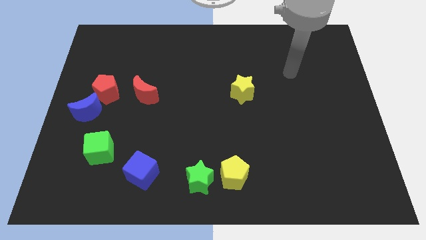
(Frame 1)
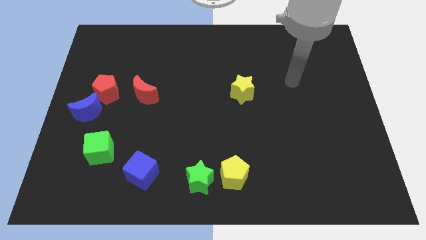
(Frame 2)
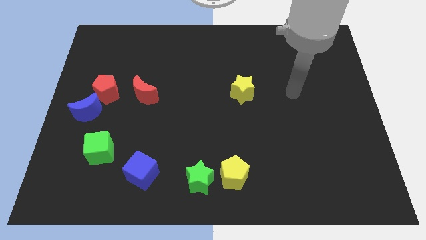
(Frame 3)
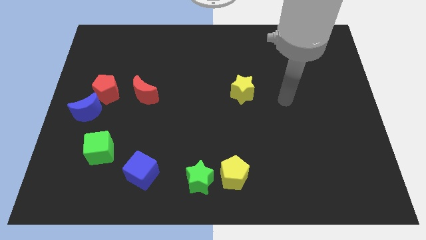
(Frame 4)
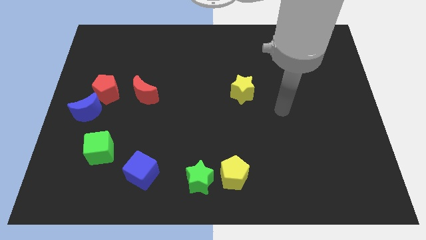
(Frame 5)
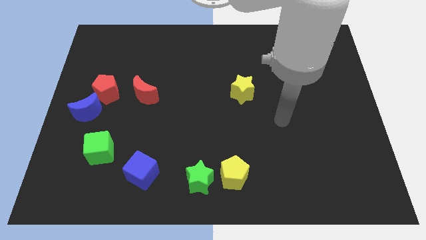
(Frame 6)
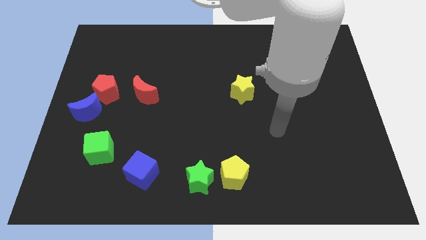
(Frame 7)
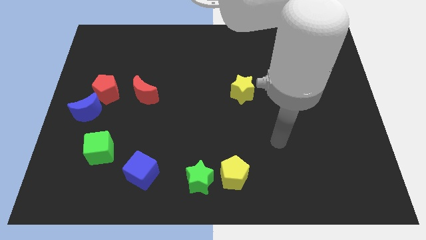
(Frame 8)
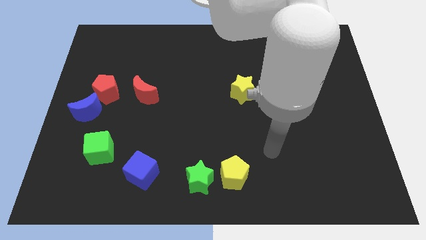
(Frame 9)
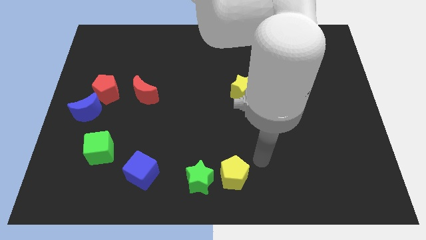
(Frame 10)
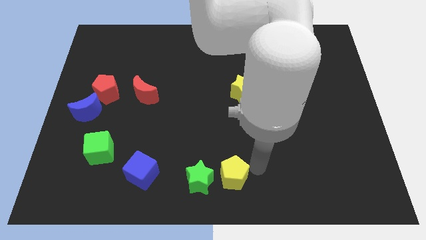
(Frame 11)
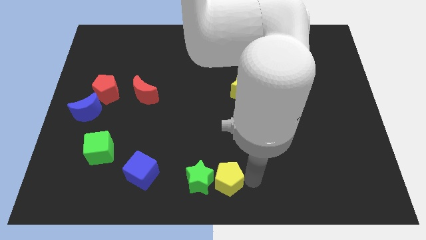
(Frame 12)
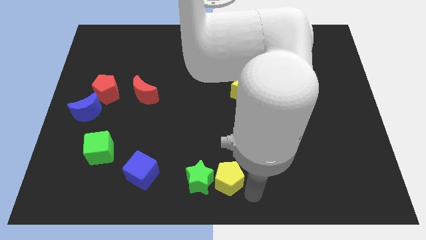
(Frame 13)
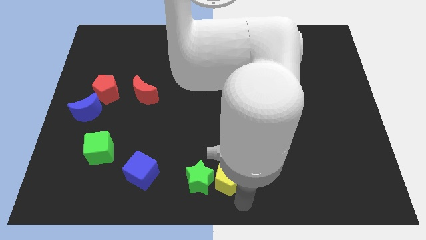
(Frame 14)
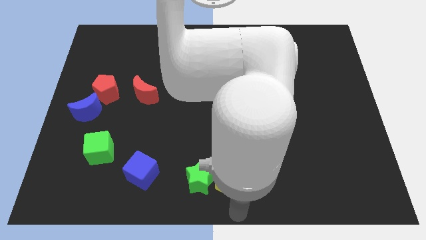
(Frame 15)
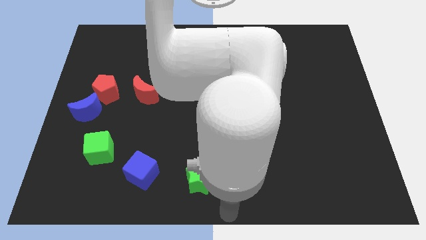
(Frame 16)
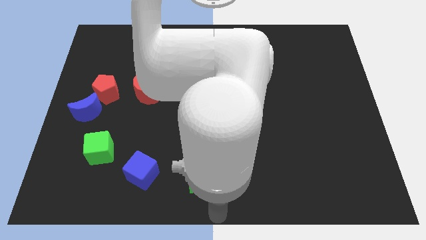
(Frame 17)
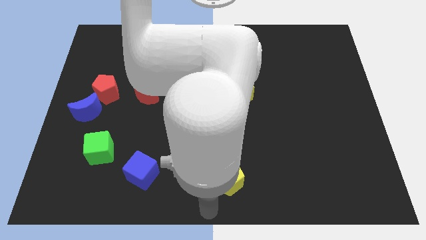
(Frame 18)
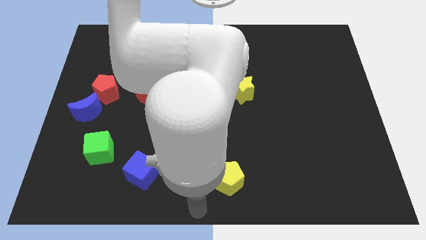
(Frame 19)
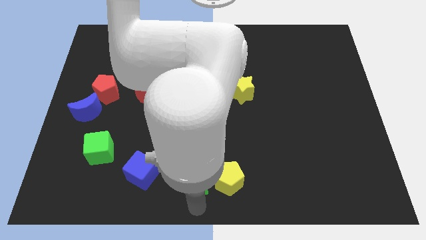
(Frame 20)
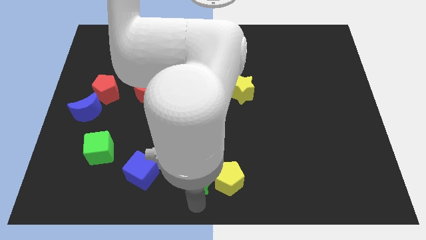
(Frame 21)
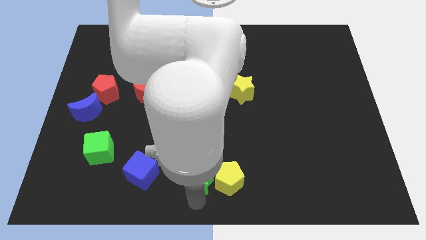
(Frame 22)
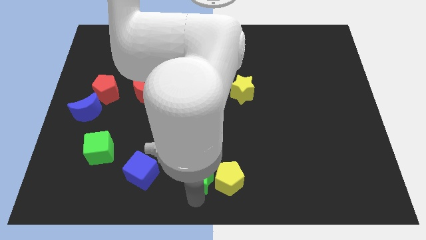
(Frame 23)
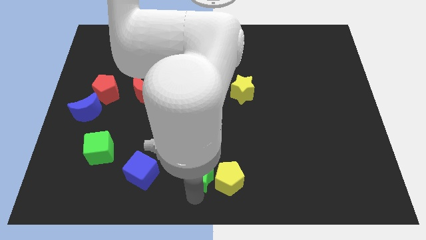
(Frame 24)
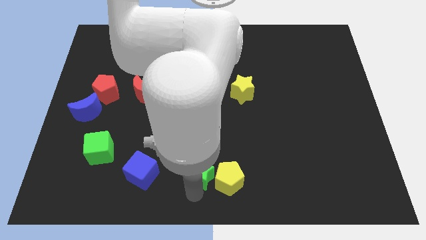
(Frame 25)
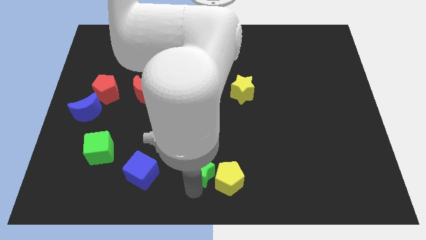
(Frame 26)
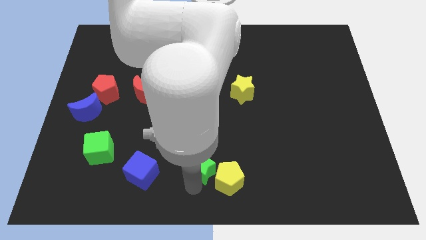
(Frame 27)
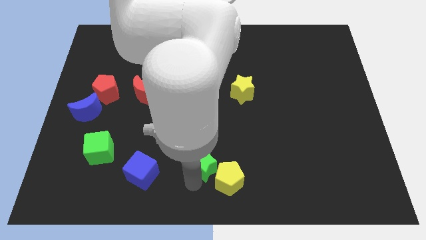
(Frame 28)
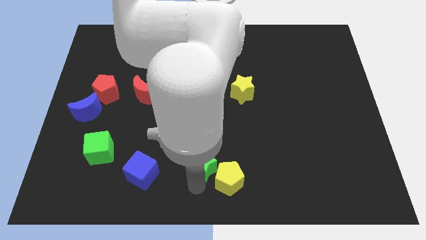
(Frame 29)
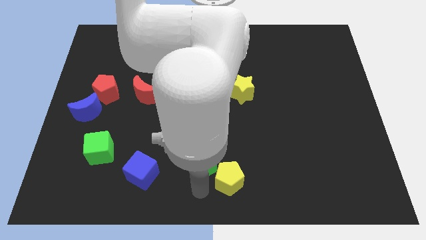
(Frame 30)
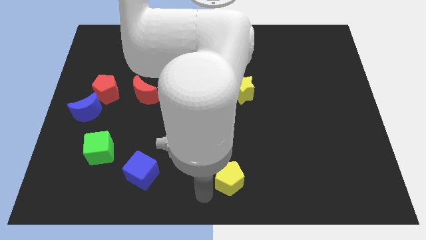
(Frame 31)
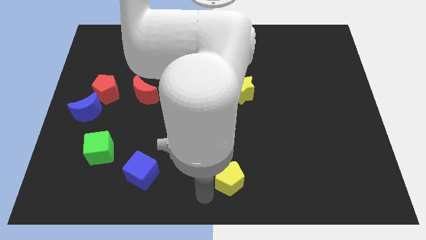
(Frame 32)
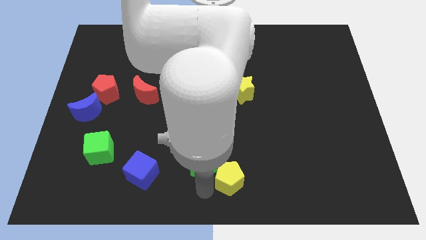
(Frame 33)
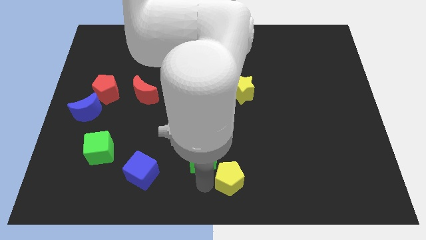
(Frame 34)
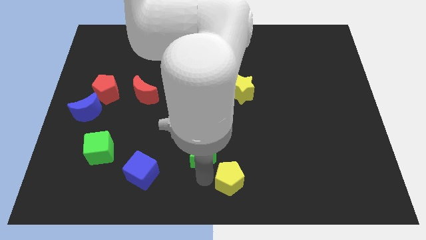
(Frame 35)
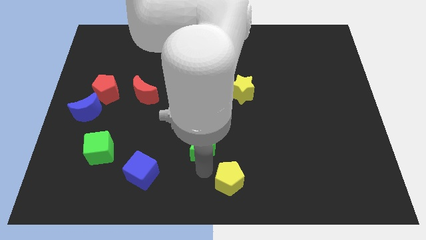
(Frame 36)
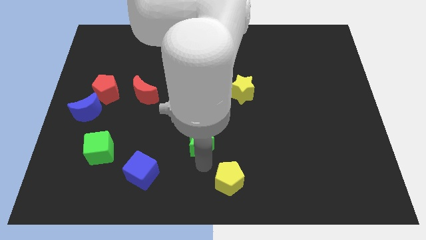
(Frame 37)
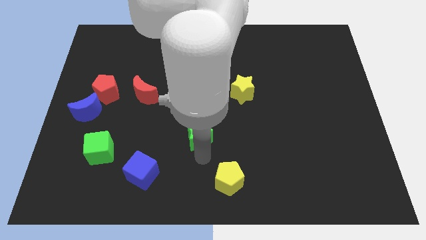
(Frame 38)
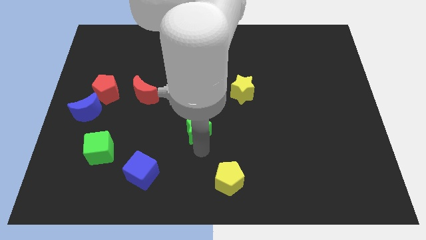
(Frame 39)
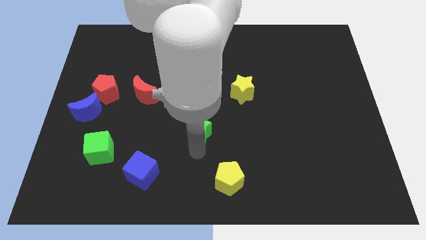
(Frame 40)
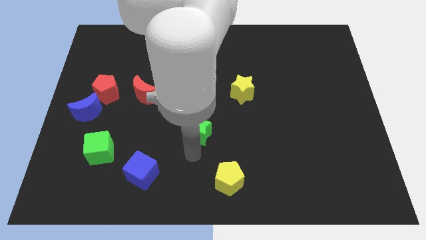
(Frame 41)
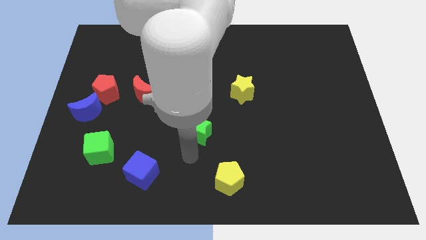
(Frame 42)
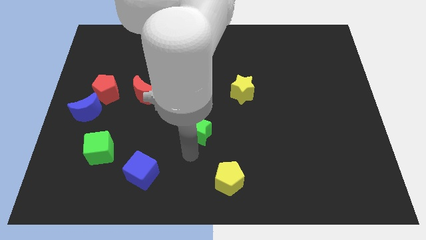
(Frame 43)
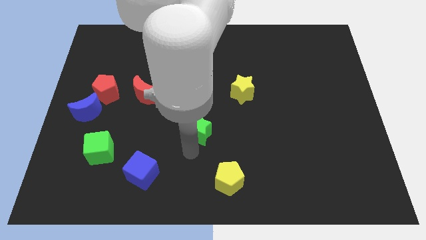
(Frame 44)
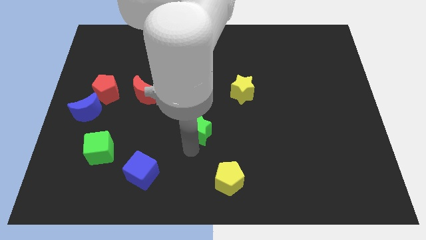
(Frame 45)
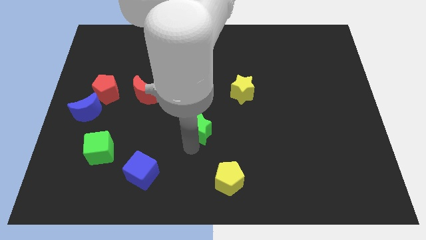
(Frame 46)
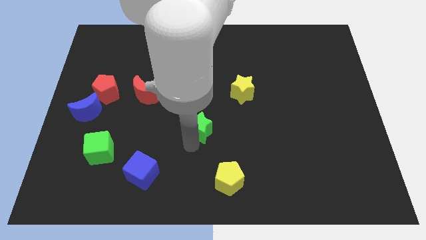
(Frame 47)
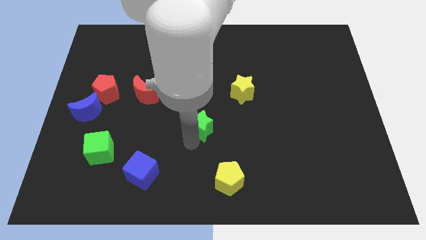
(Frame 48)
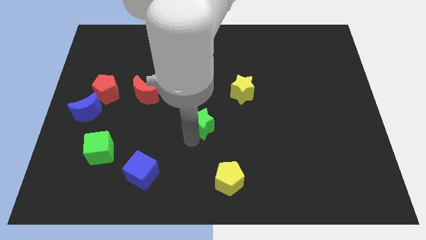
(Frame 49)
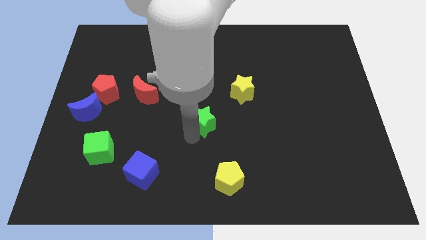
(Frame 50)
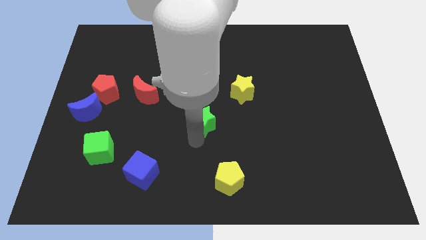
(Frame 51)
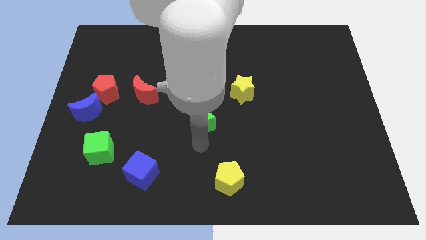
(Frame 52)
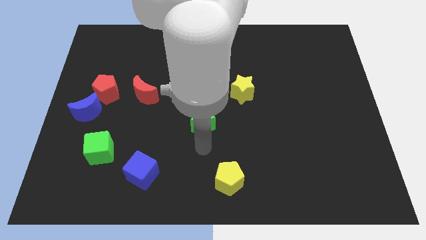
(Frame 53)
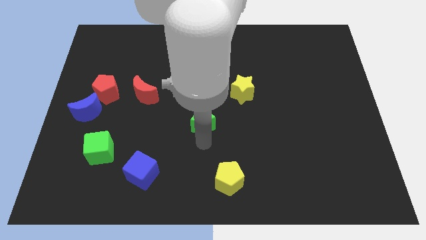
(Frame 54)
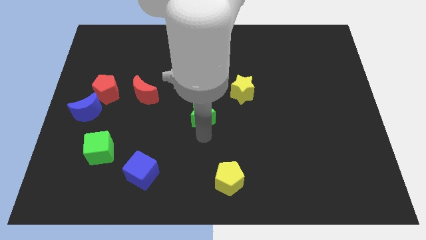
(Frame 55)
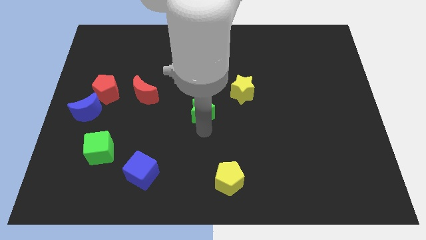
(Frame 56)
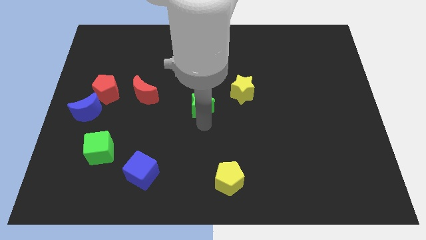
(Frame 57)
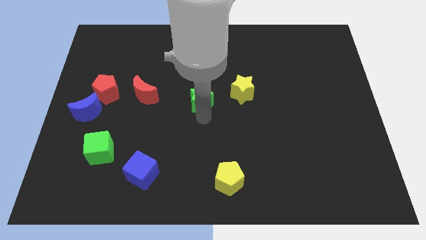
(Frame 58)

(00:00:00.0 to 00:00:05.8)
slide the green star upwards

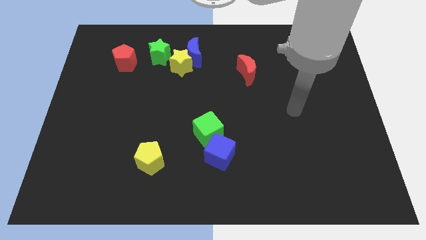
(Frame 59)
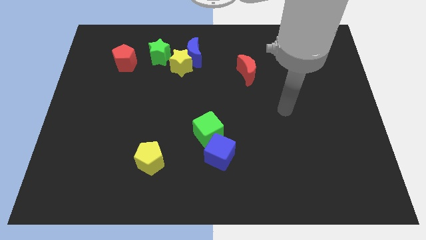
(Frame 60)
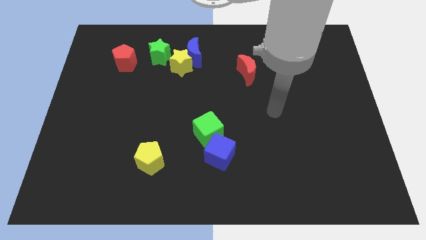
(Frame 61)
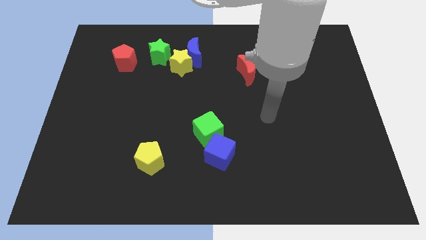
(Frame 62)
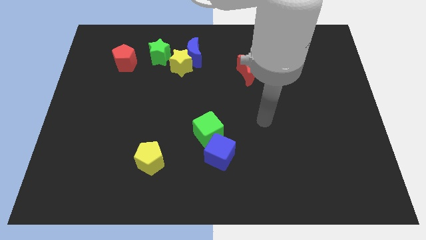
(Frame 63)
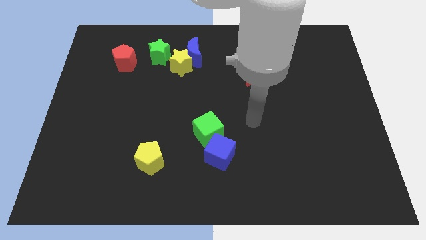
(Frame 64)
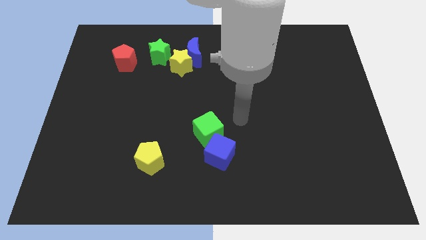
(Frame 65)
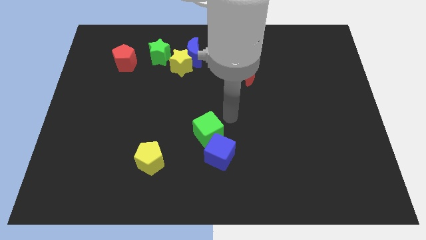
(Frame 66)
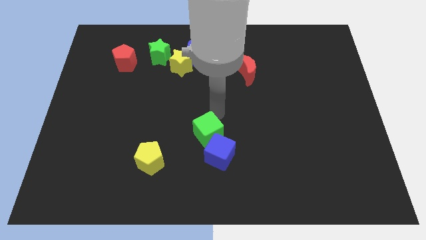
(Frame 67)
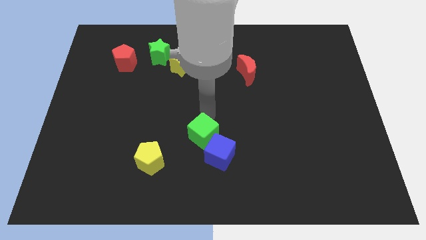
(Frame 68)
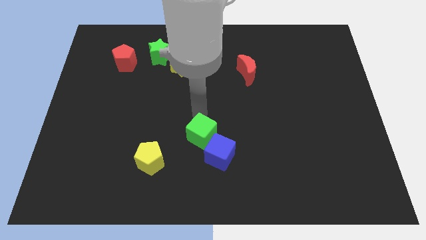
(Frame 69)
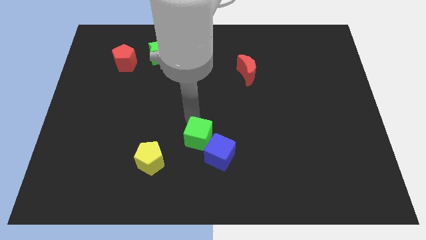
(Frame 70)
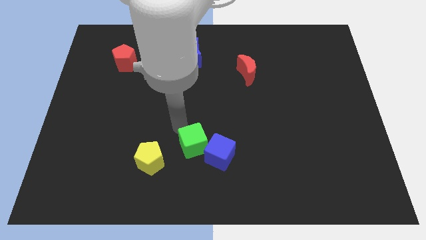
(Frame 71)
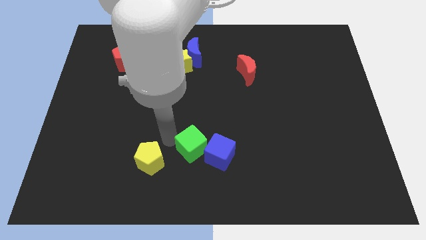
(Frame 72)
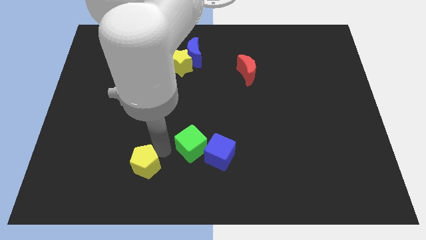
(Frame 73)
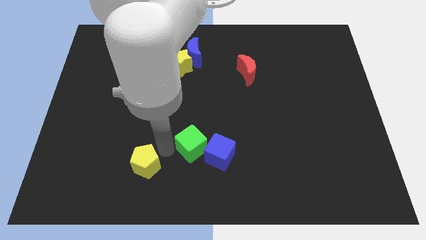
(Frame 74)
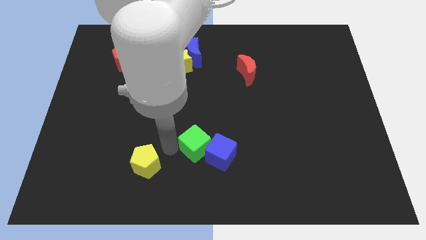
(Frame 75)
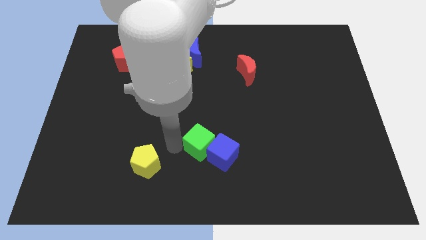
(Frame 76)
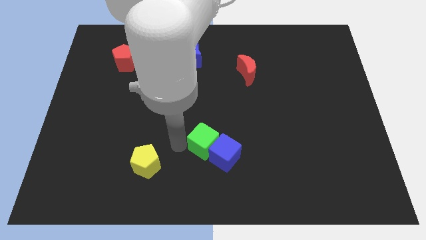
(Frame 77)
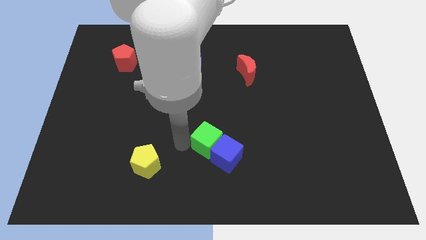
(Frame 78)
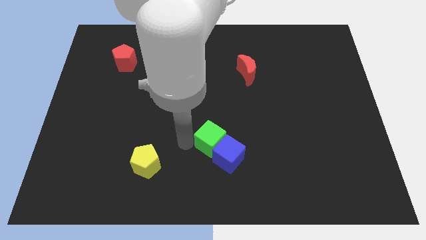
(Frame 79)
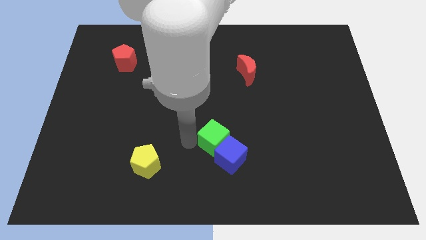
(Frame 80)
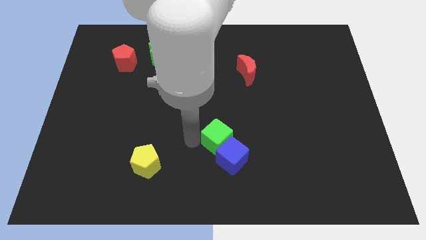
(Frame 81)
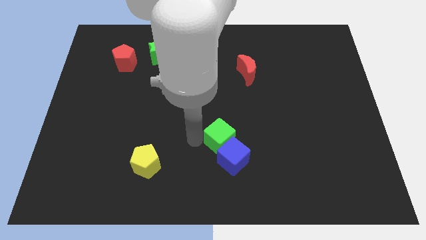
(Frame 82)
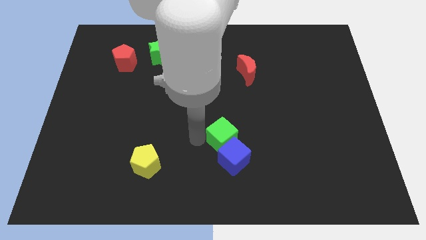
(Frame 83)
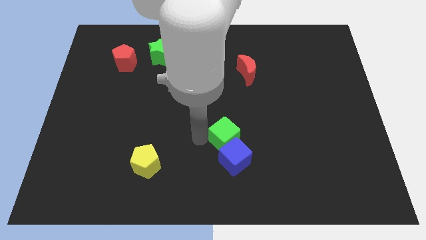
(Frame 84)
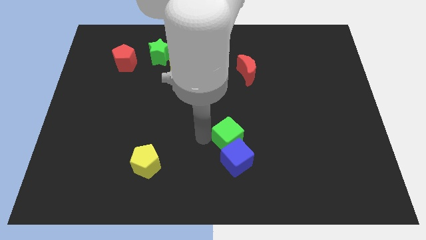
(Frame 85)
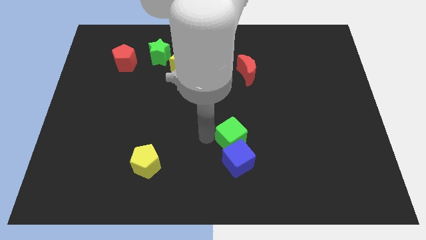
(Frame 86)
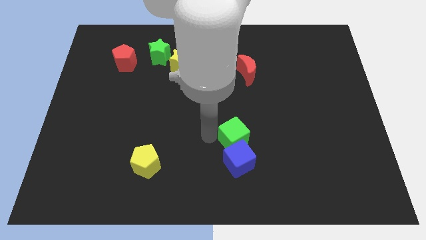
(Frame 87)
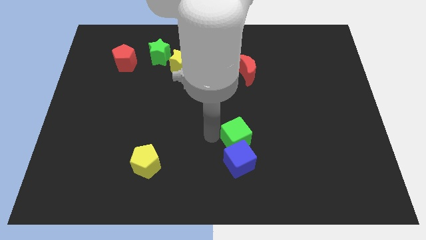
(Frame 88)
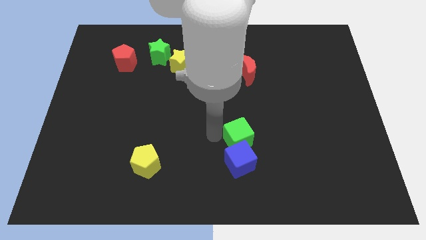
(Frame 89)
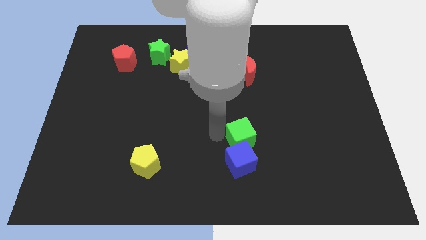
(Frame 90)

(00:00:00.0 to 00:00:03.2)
push the green cube slightly right
